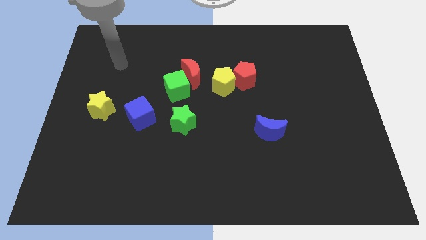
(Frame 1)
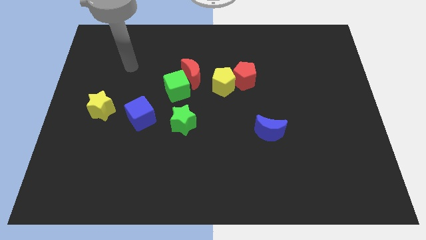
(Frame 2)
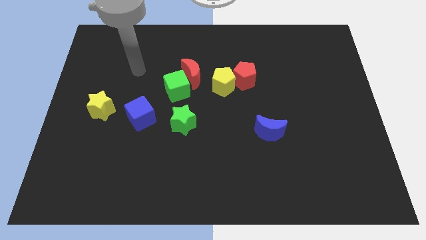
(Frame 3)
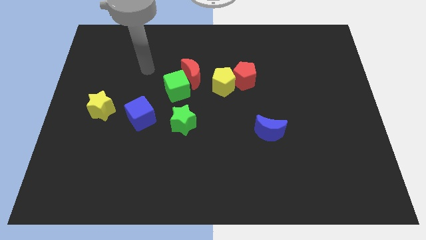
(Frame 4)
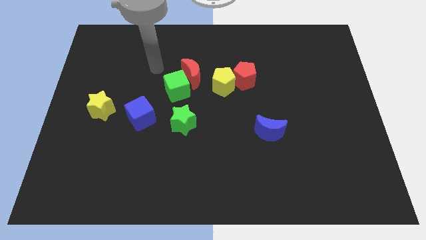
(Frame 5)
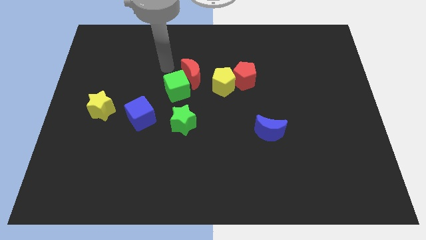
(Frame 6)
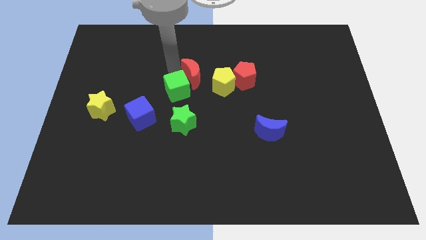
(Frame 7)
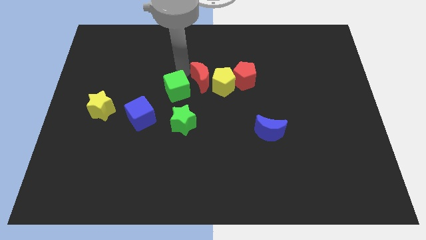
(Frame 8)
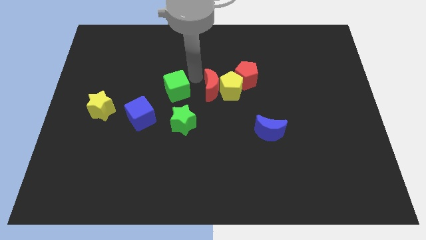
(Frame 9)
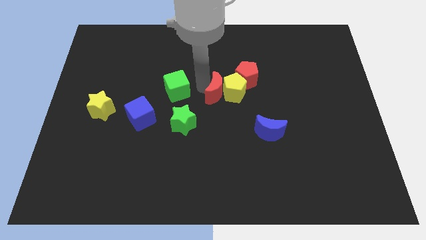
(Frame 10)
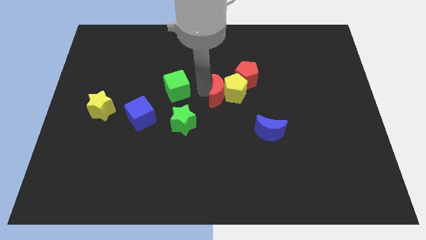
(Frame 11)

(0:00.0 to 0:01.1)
move the green cube away from the red moon

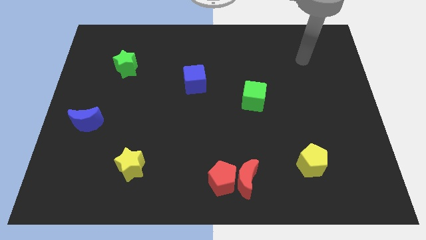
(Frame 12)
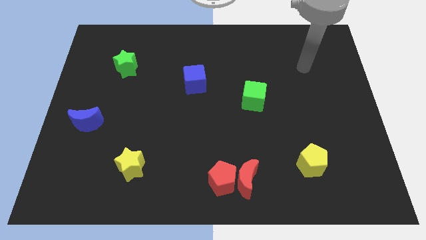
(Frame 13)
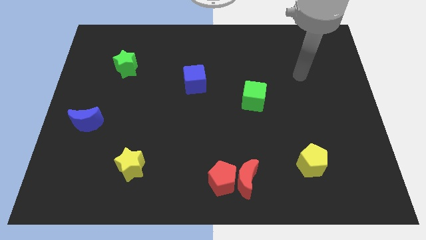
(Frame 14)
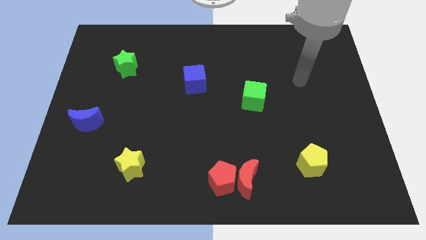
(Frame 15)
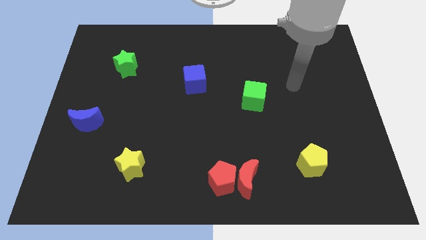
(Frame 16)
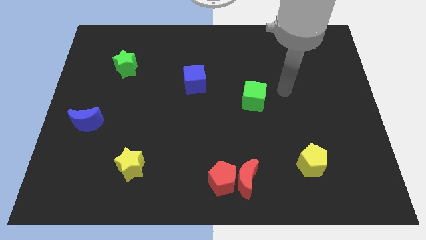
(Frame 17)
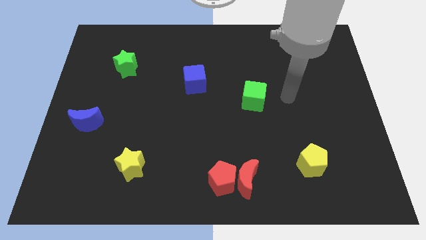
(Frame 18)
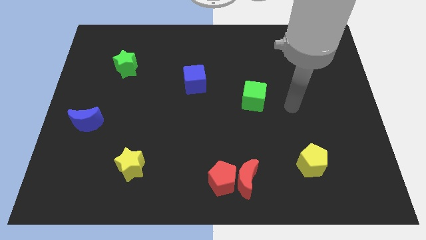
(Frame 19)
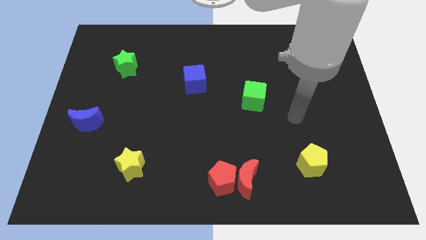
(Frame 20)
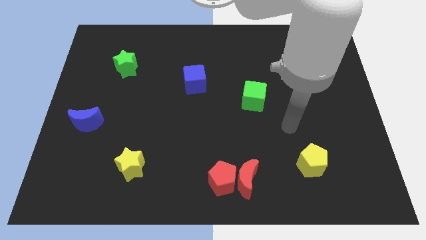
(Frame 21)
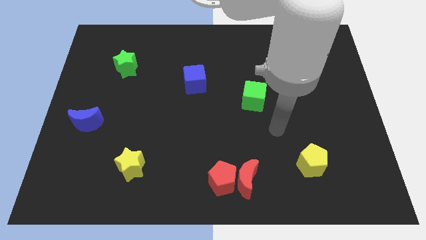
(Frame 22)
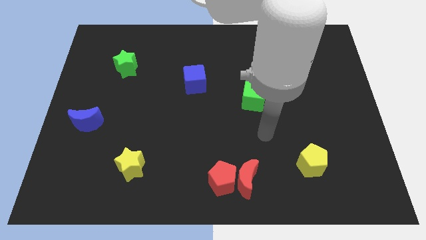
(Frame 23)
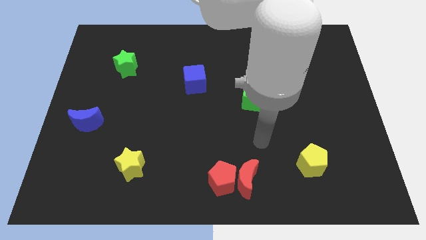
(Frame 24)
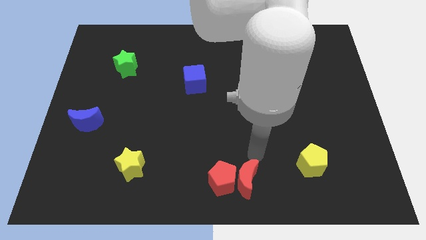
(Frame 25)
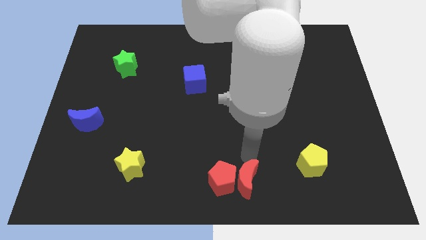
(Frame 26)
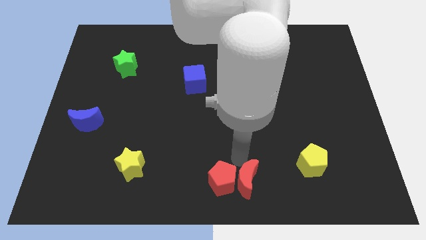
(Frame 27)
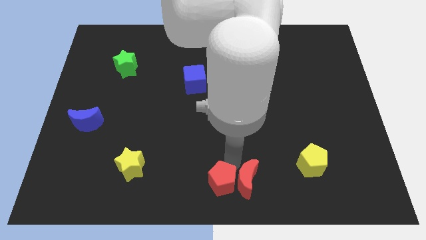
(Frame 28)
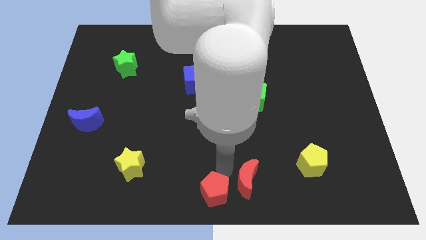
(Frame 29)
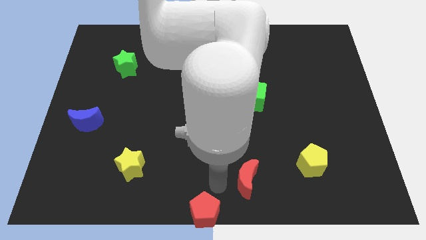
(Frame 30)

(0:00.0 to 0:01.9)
pull the red moon apart from the red pentagon

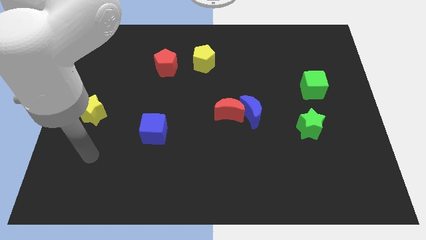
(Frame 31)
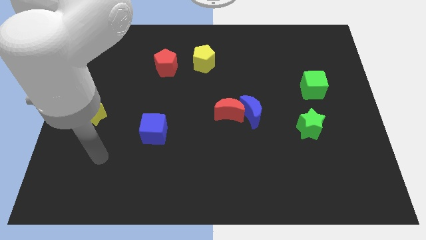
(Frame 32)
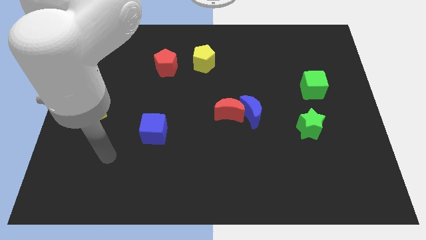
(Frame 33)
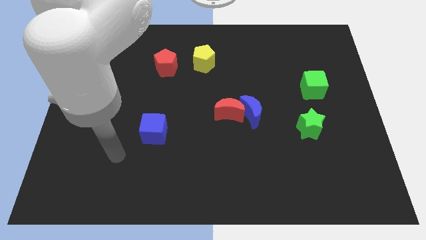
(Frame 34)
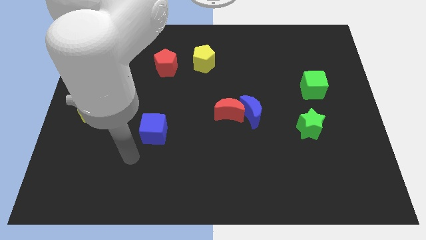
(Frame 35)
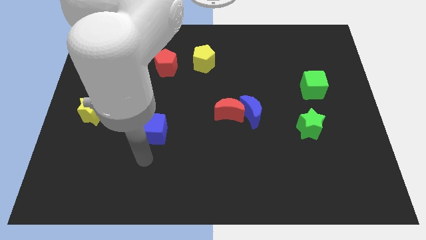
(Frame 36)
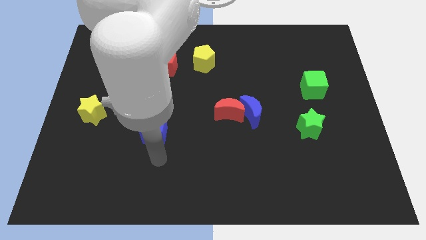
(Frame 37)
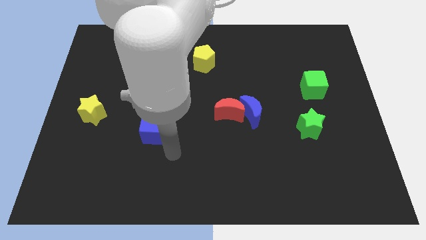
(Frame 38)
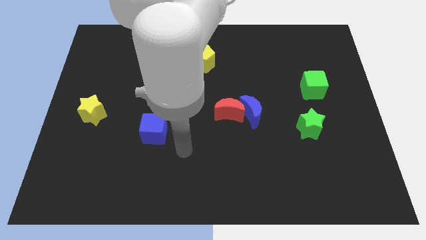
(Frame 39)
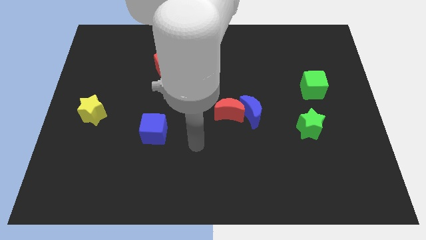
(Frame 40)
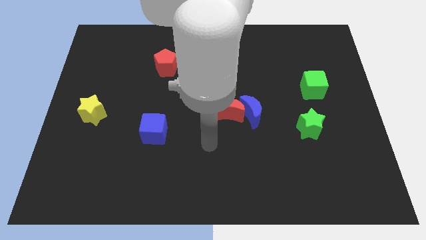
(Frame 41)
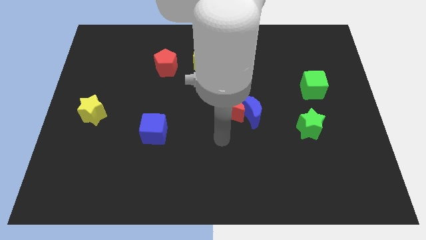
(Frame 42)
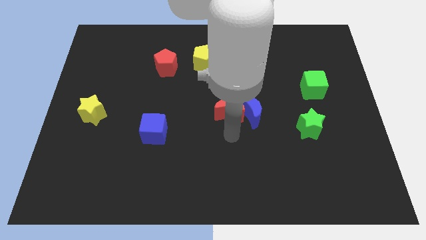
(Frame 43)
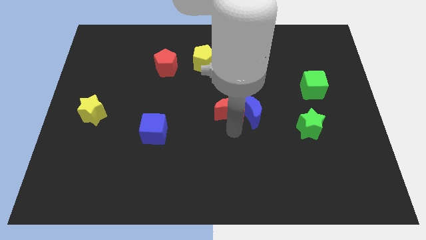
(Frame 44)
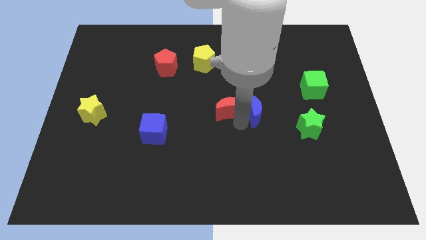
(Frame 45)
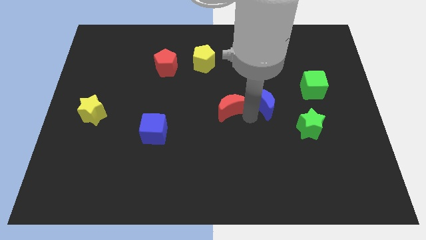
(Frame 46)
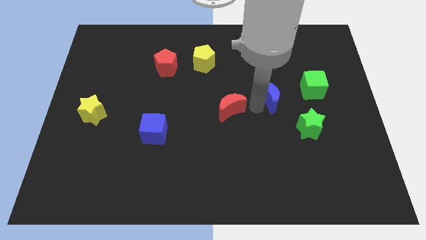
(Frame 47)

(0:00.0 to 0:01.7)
pull the red moon apart from the blue moon

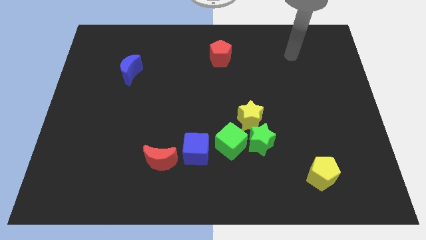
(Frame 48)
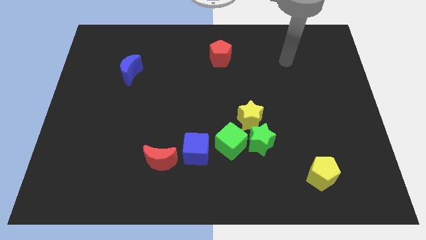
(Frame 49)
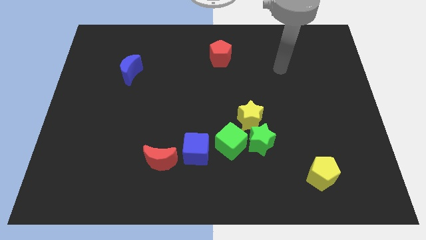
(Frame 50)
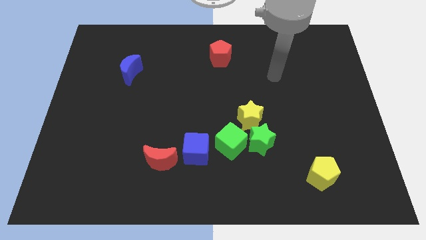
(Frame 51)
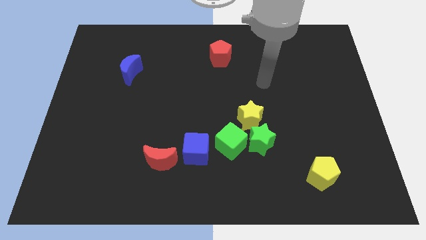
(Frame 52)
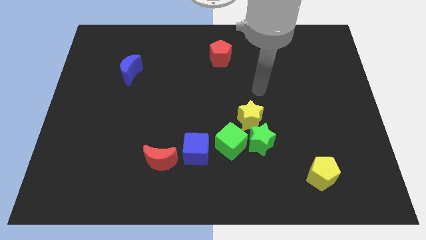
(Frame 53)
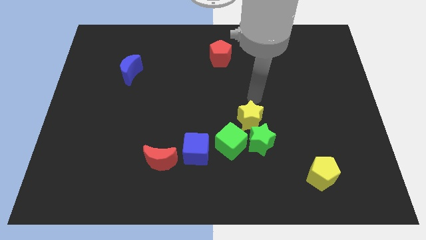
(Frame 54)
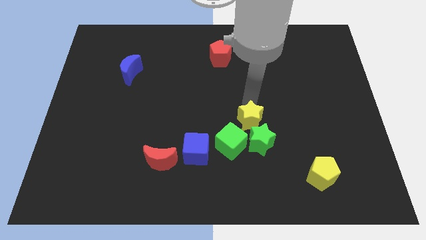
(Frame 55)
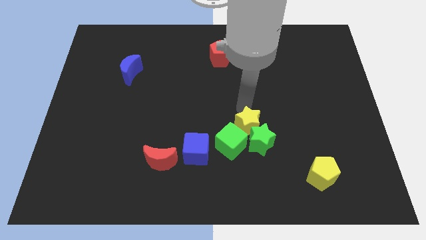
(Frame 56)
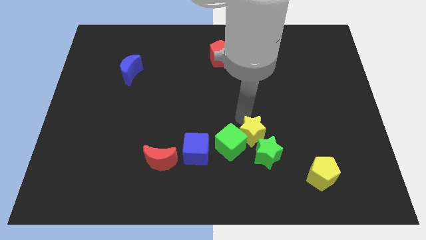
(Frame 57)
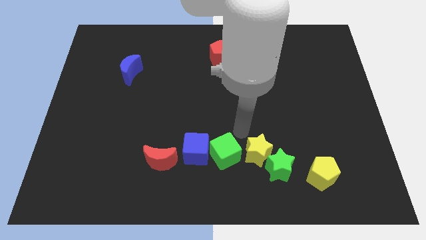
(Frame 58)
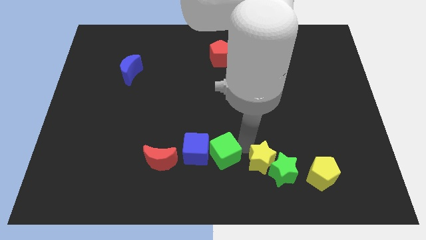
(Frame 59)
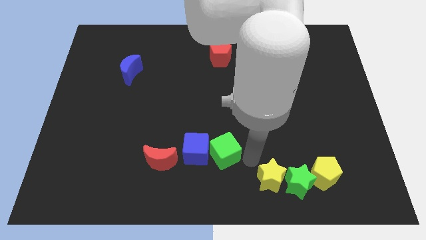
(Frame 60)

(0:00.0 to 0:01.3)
move the green star away from the green cube and yellow star

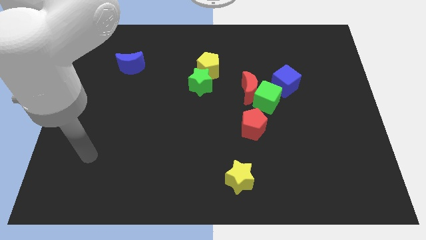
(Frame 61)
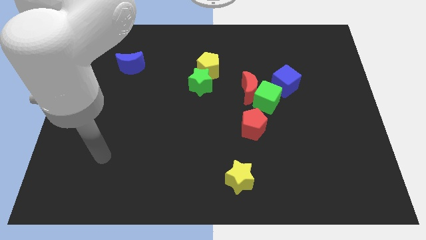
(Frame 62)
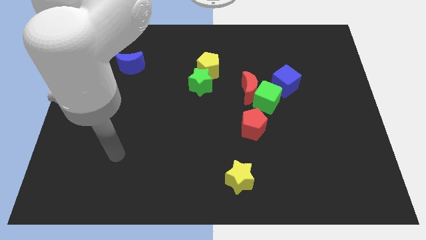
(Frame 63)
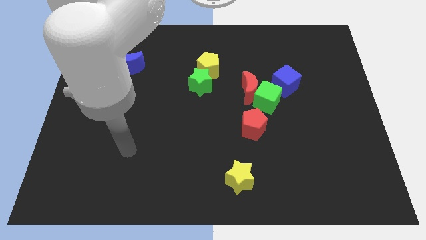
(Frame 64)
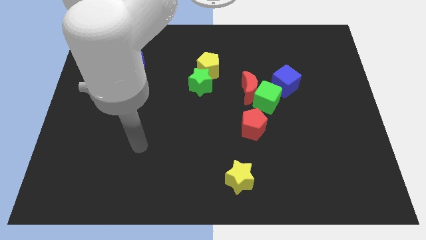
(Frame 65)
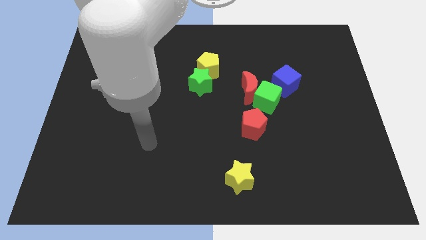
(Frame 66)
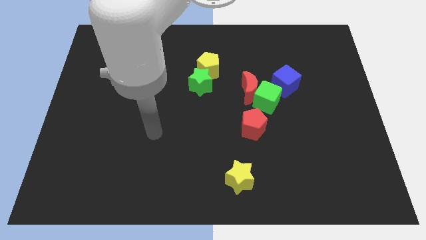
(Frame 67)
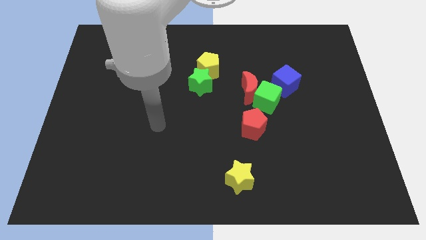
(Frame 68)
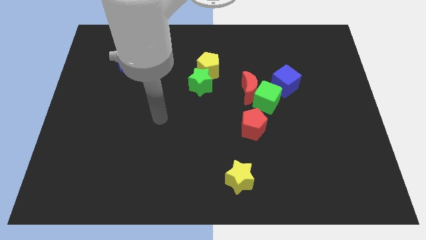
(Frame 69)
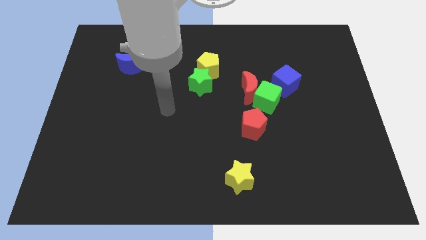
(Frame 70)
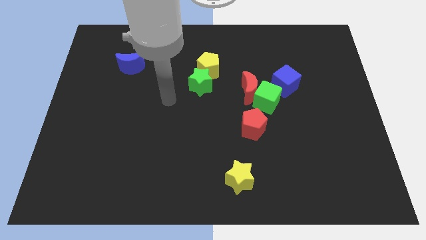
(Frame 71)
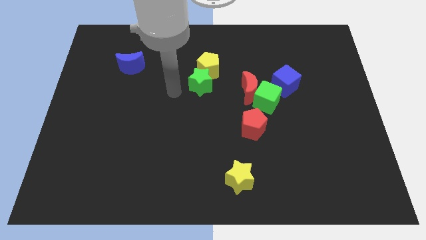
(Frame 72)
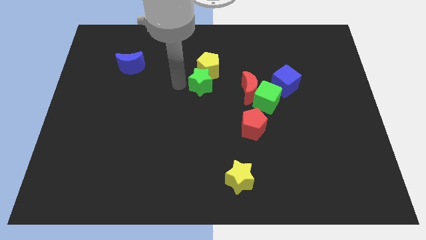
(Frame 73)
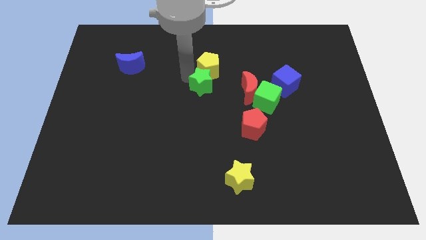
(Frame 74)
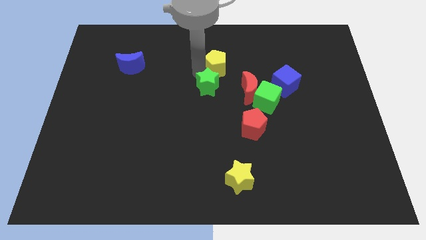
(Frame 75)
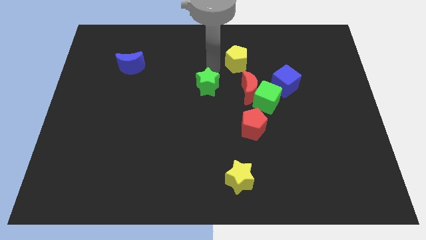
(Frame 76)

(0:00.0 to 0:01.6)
pull the green star apart from the yellow pentagon

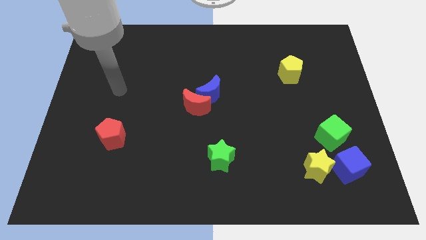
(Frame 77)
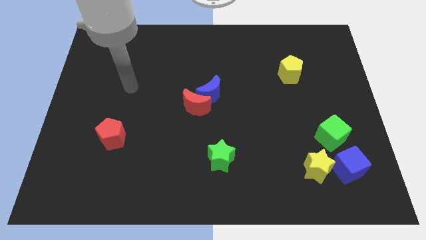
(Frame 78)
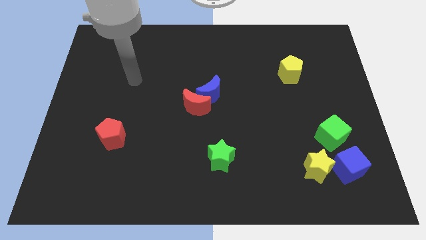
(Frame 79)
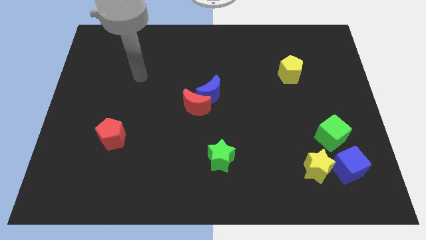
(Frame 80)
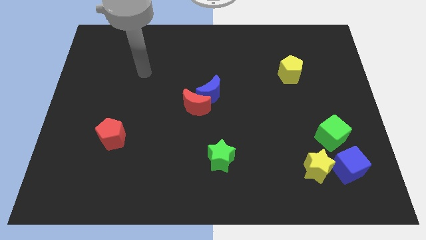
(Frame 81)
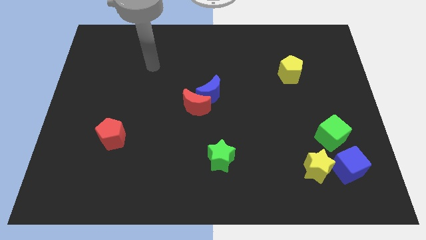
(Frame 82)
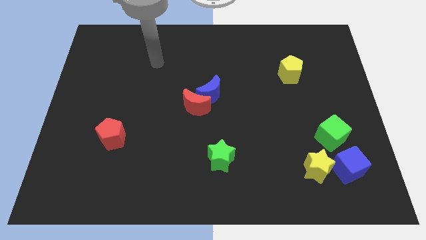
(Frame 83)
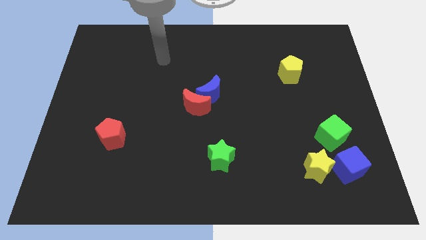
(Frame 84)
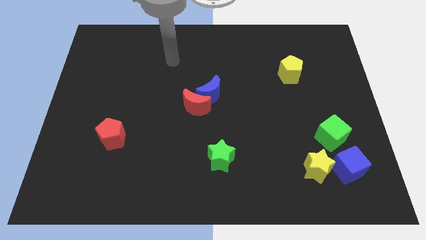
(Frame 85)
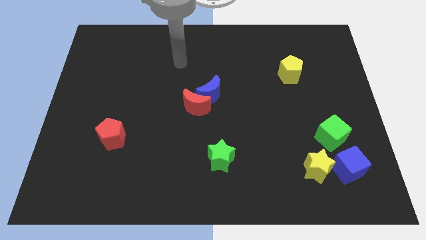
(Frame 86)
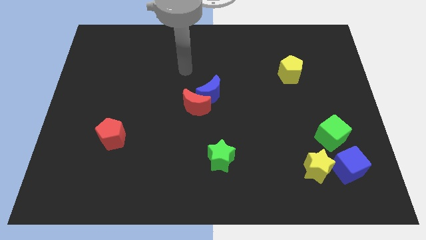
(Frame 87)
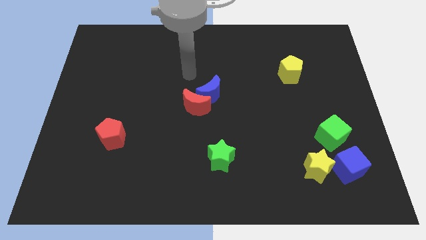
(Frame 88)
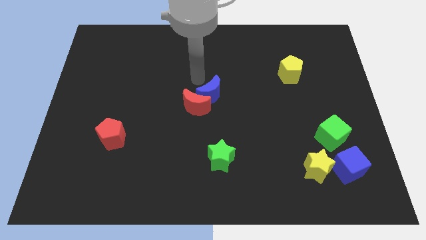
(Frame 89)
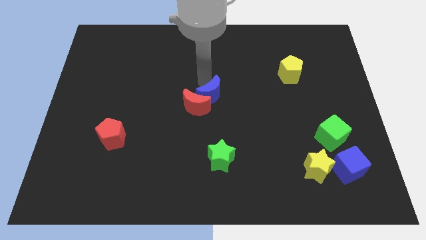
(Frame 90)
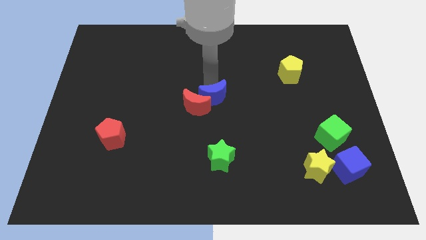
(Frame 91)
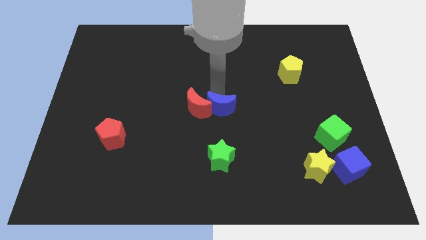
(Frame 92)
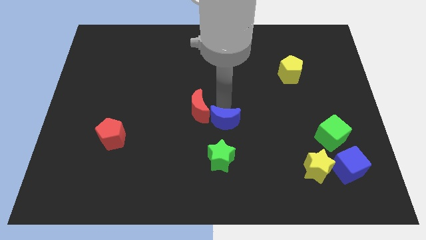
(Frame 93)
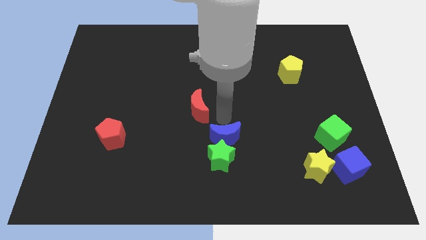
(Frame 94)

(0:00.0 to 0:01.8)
move the red moon away from the blue moon
